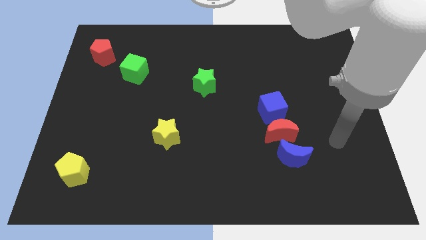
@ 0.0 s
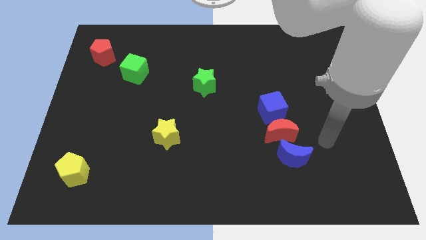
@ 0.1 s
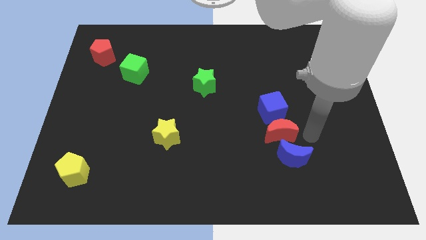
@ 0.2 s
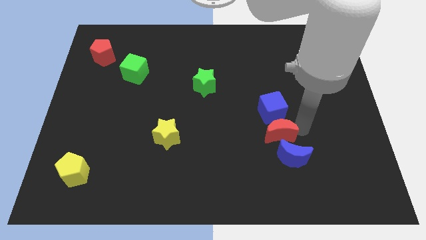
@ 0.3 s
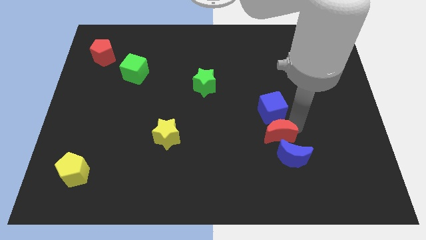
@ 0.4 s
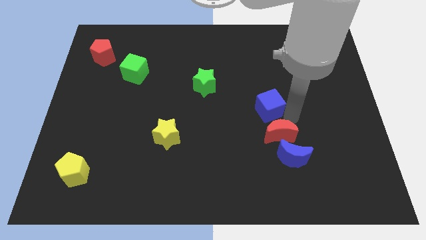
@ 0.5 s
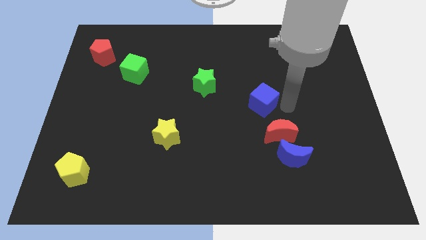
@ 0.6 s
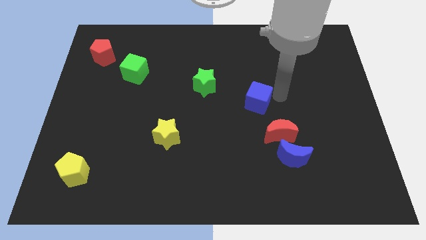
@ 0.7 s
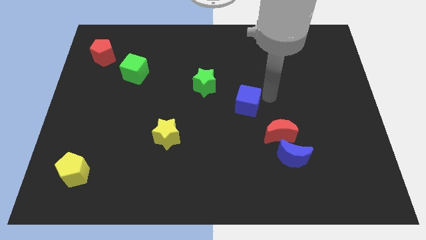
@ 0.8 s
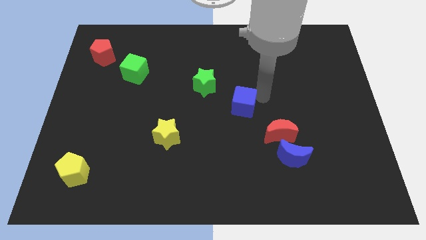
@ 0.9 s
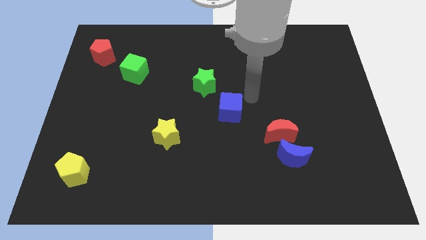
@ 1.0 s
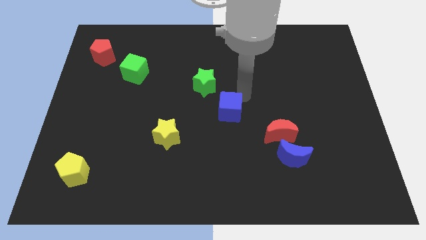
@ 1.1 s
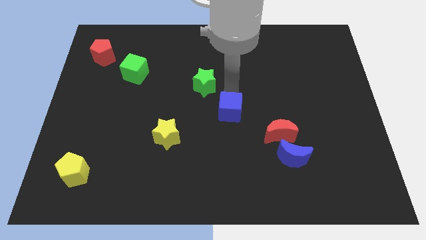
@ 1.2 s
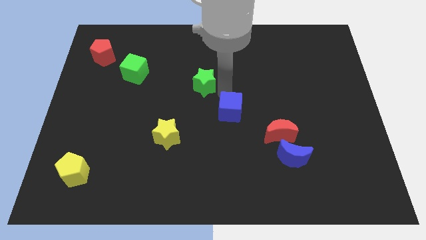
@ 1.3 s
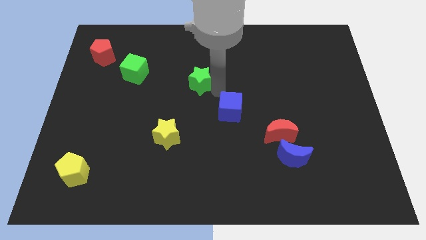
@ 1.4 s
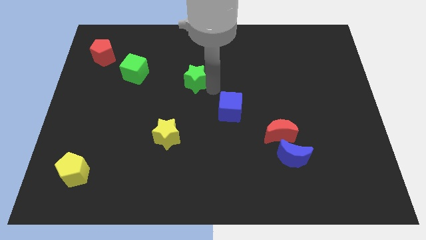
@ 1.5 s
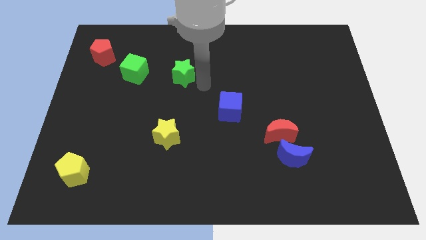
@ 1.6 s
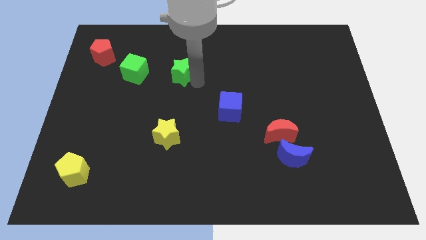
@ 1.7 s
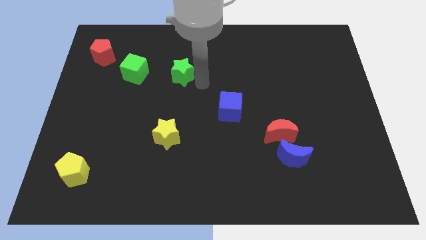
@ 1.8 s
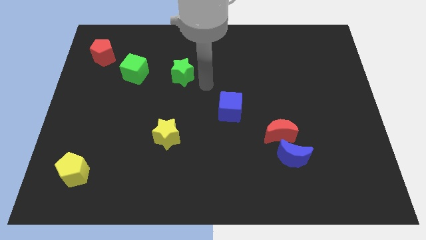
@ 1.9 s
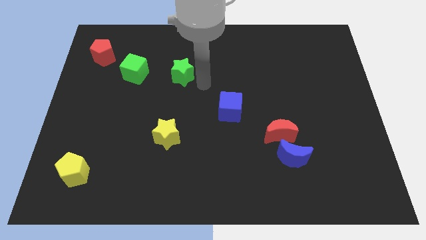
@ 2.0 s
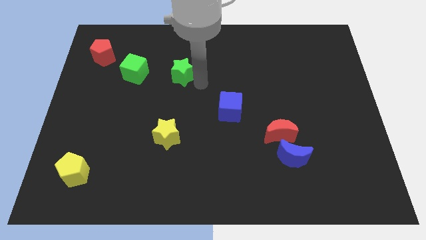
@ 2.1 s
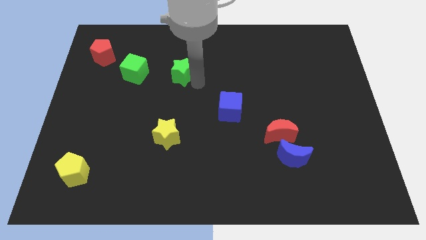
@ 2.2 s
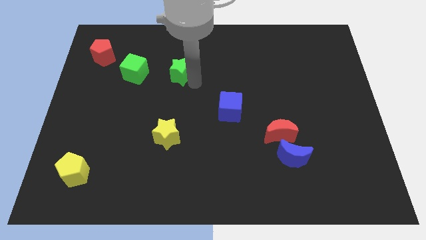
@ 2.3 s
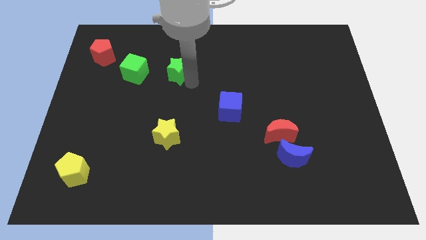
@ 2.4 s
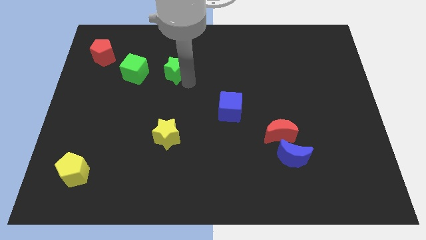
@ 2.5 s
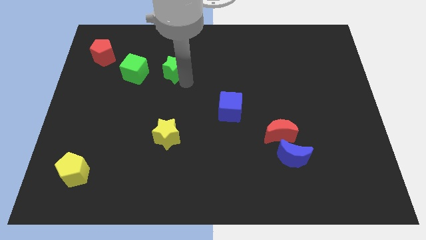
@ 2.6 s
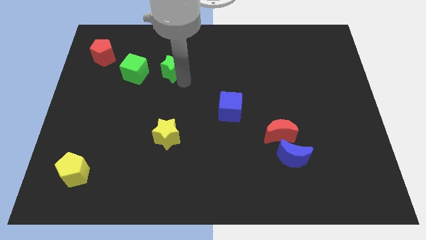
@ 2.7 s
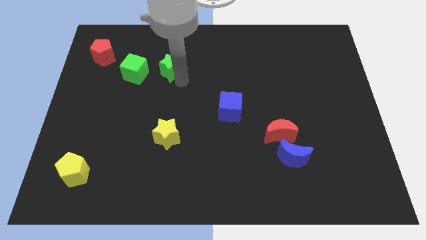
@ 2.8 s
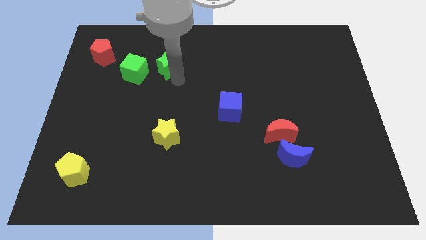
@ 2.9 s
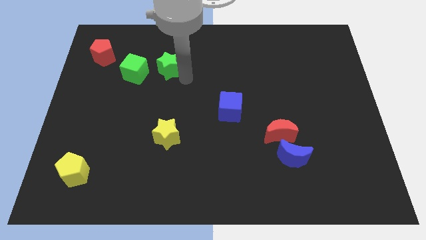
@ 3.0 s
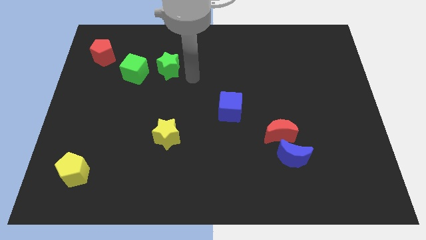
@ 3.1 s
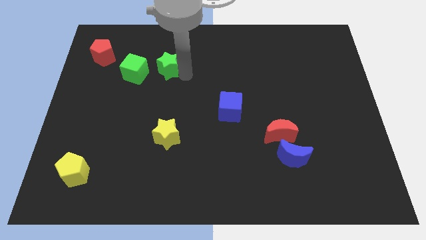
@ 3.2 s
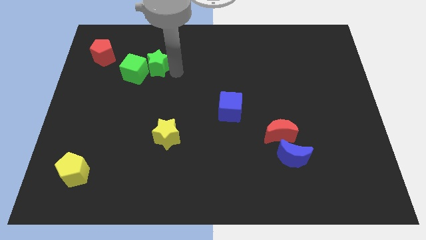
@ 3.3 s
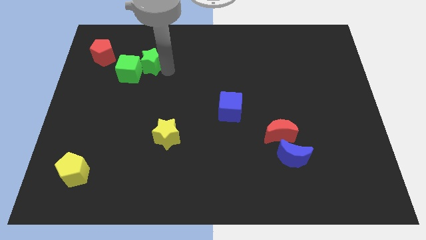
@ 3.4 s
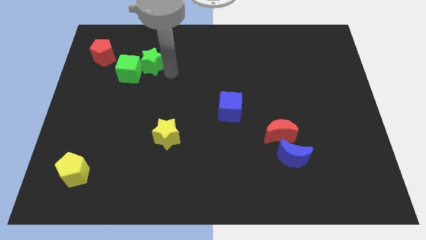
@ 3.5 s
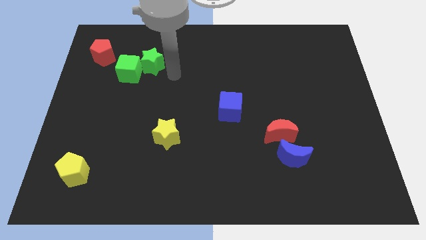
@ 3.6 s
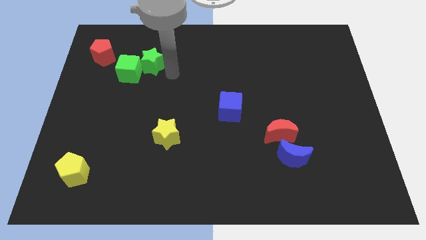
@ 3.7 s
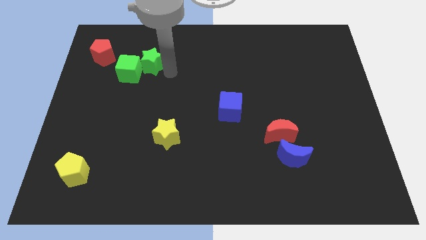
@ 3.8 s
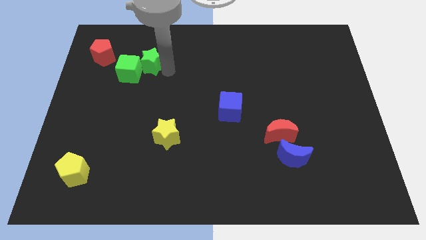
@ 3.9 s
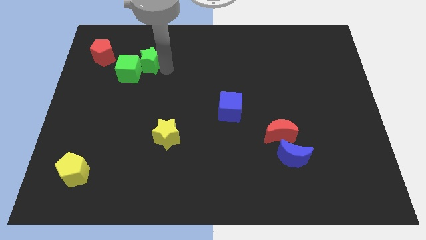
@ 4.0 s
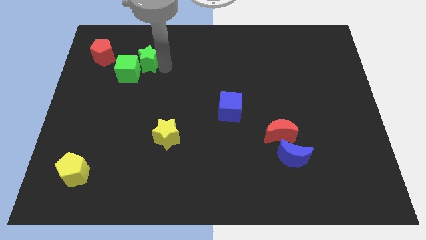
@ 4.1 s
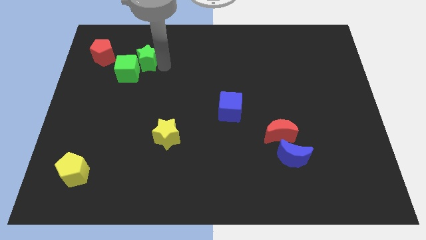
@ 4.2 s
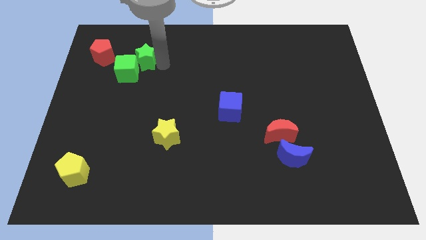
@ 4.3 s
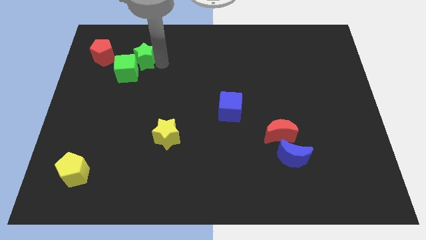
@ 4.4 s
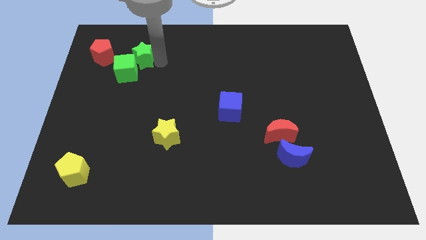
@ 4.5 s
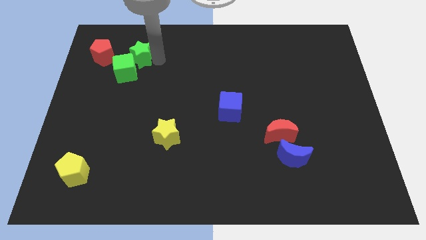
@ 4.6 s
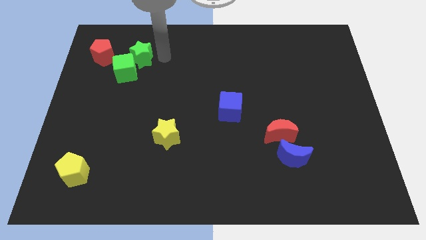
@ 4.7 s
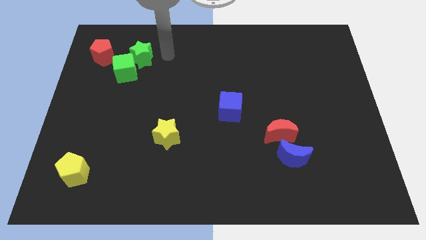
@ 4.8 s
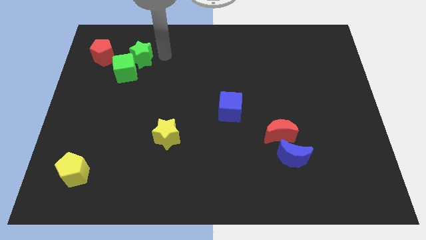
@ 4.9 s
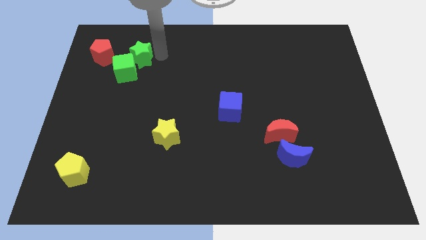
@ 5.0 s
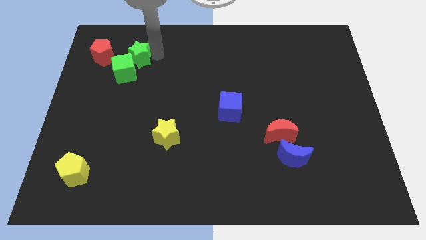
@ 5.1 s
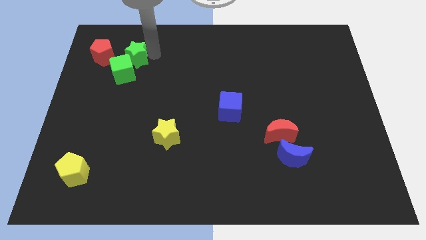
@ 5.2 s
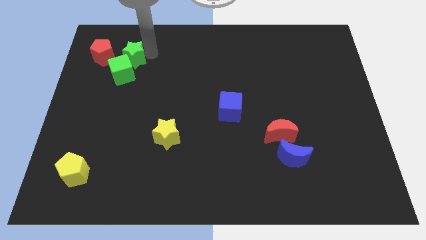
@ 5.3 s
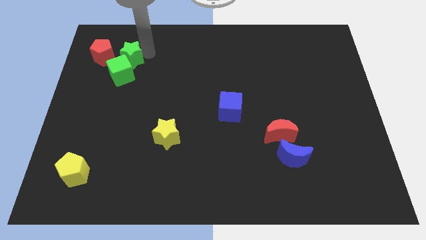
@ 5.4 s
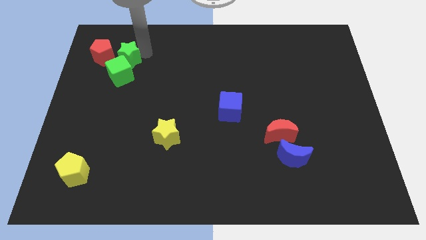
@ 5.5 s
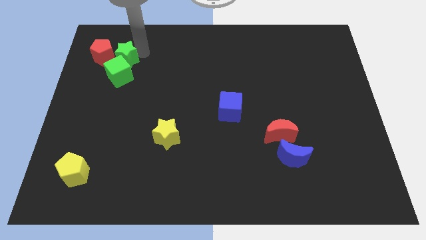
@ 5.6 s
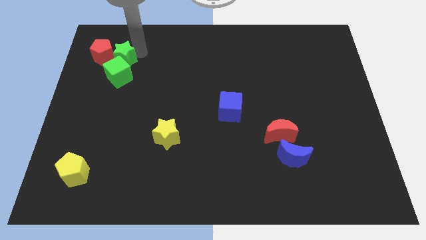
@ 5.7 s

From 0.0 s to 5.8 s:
push the green star towards the red pentagon

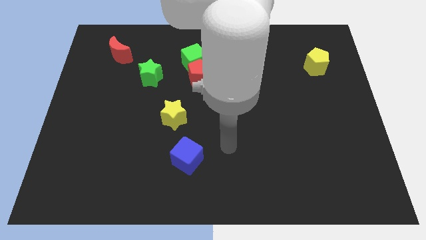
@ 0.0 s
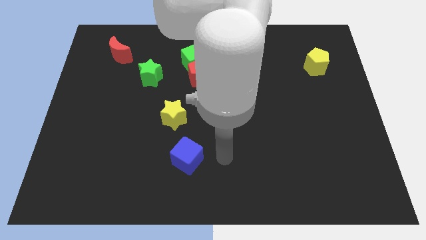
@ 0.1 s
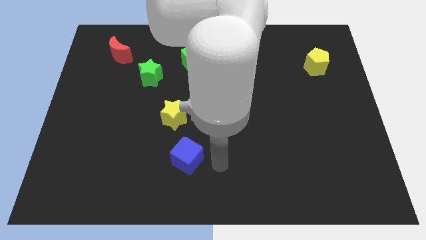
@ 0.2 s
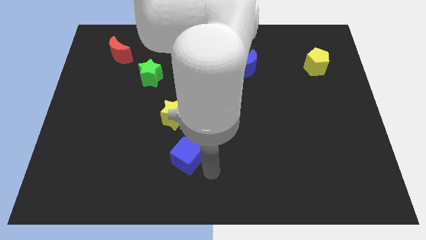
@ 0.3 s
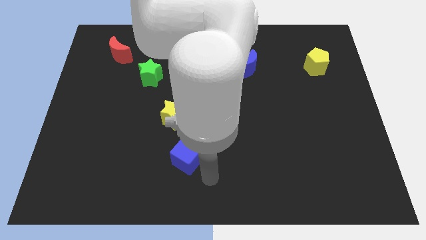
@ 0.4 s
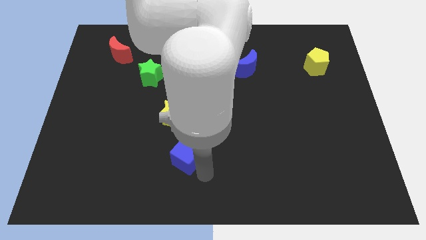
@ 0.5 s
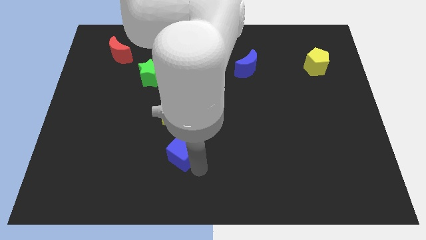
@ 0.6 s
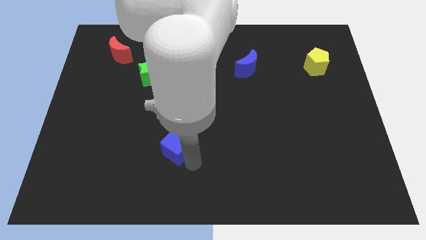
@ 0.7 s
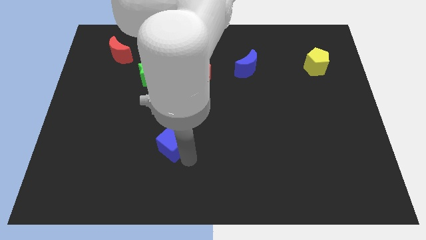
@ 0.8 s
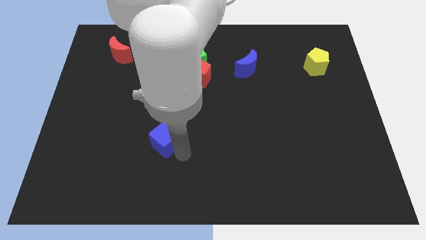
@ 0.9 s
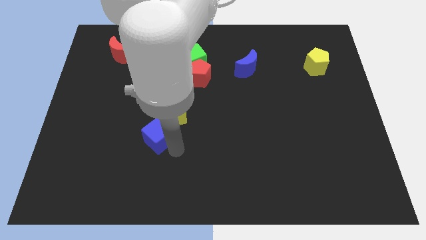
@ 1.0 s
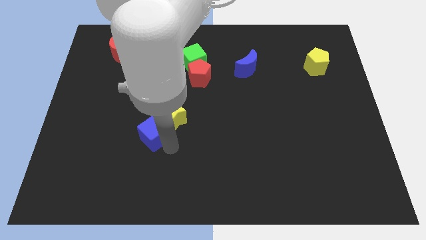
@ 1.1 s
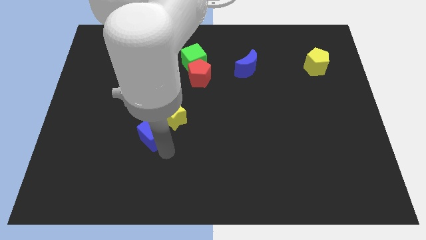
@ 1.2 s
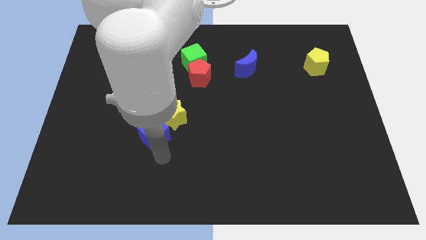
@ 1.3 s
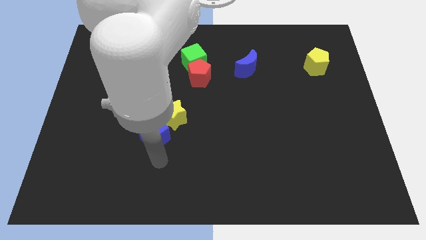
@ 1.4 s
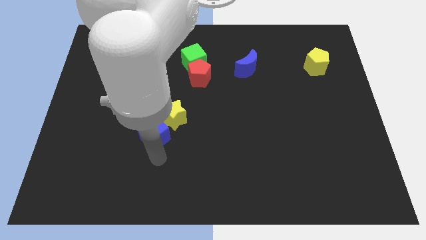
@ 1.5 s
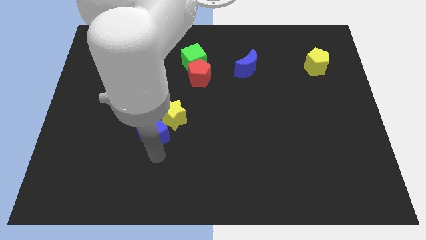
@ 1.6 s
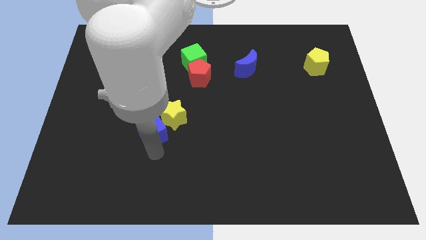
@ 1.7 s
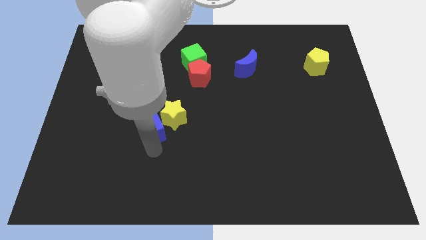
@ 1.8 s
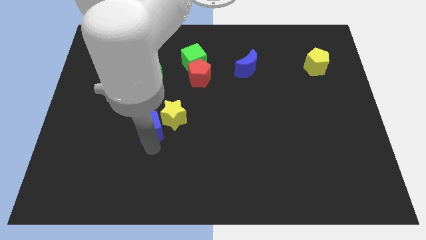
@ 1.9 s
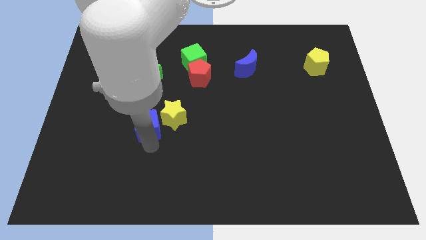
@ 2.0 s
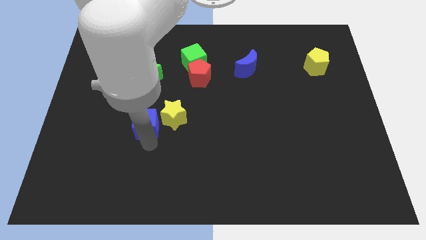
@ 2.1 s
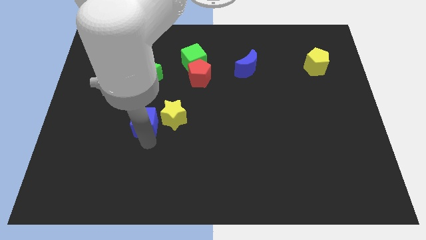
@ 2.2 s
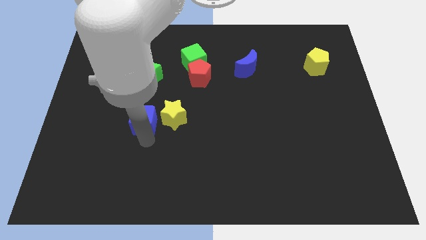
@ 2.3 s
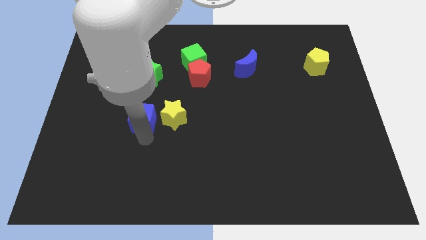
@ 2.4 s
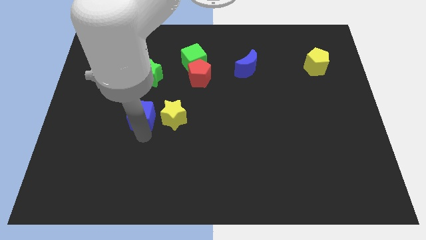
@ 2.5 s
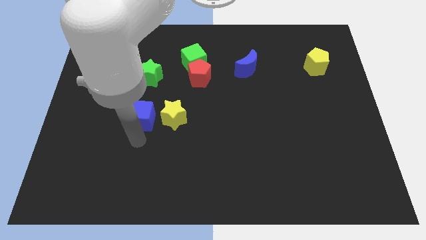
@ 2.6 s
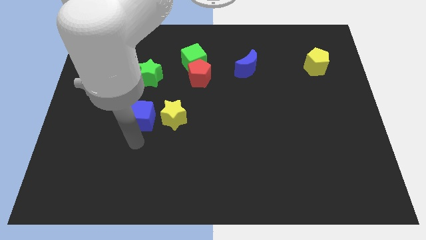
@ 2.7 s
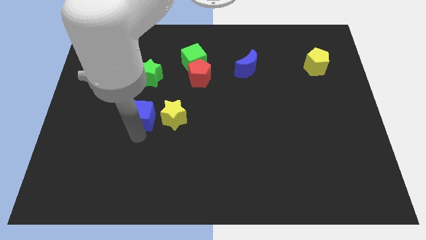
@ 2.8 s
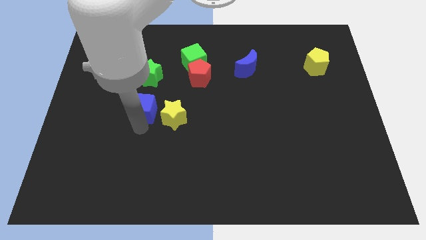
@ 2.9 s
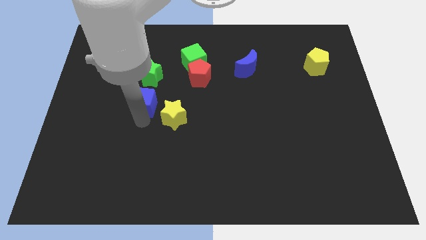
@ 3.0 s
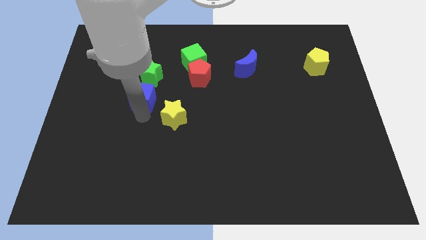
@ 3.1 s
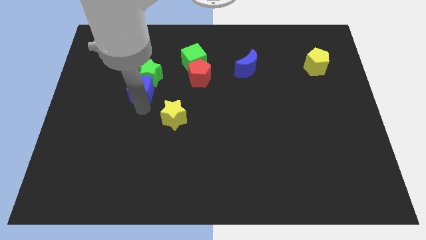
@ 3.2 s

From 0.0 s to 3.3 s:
move the blue cube to the green star
